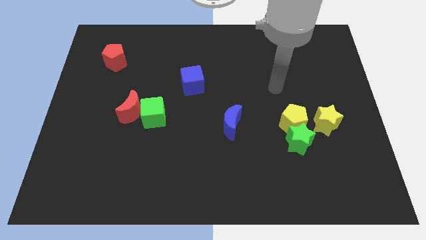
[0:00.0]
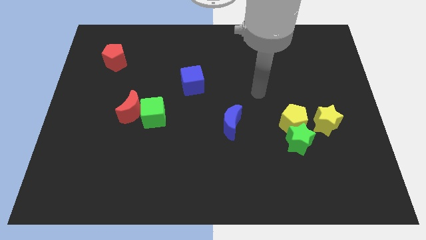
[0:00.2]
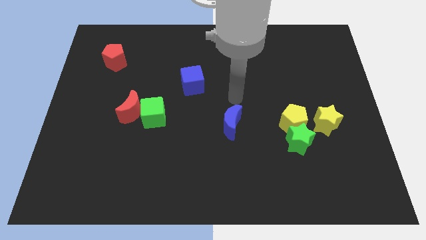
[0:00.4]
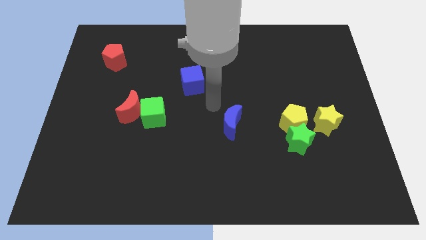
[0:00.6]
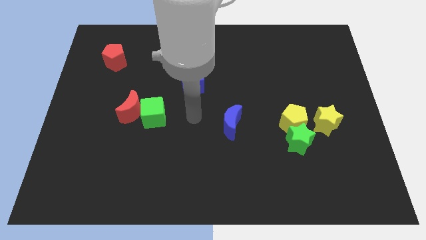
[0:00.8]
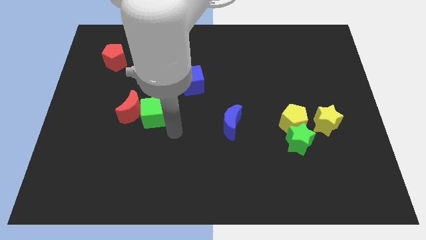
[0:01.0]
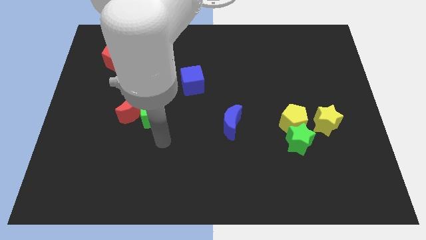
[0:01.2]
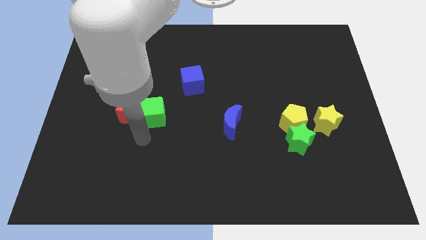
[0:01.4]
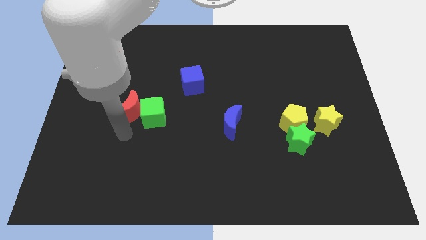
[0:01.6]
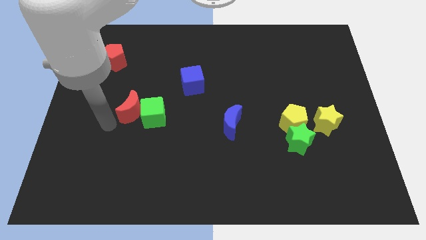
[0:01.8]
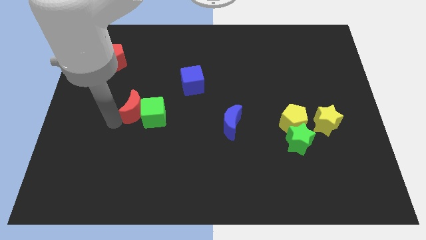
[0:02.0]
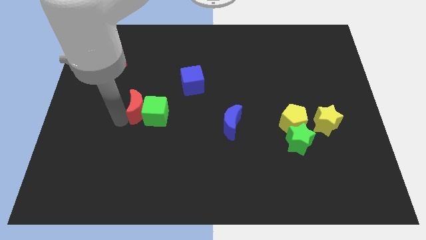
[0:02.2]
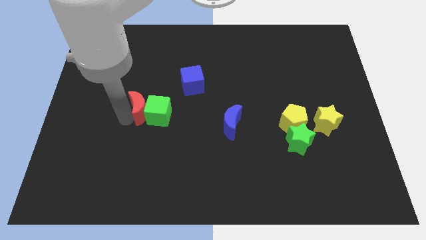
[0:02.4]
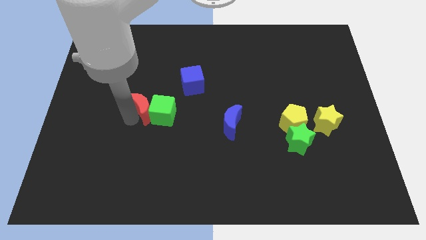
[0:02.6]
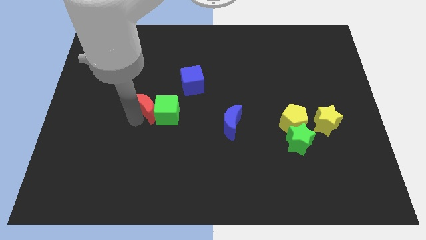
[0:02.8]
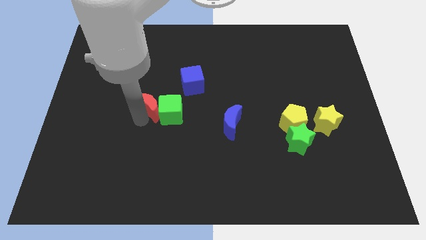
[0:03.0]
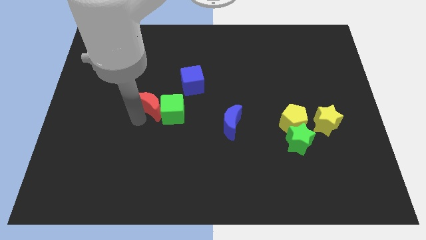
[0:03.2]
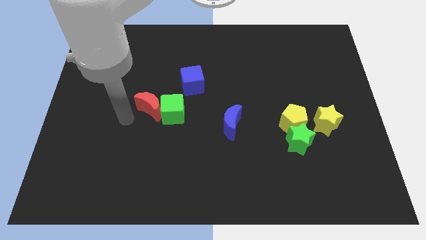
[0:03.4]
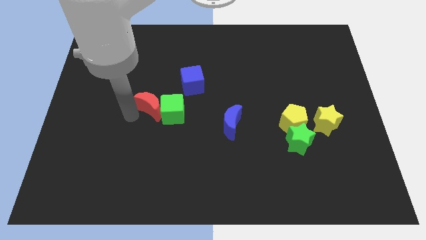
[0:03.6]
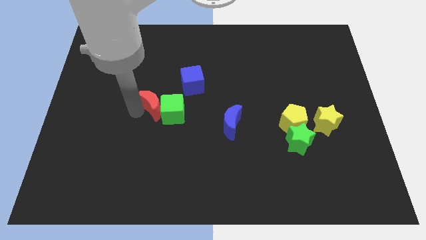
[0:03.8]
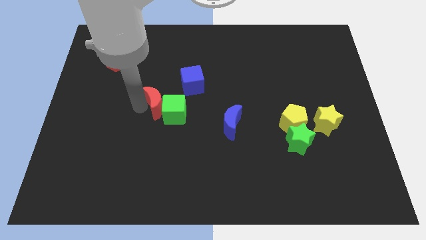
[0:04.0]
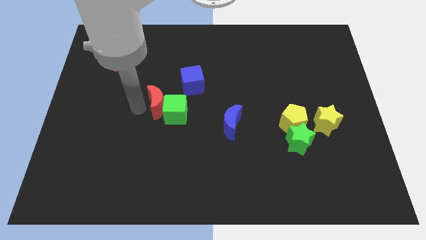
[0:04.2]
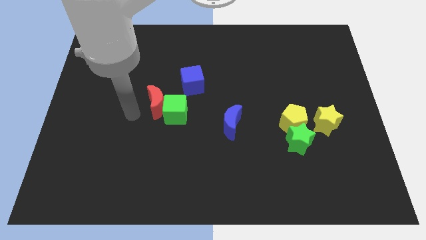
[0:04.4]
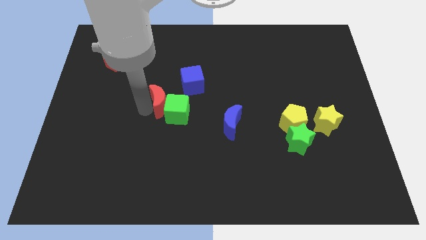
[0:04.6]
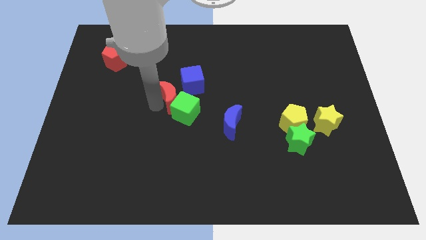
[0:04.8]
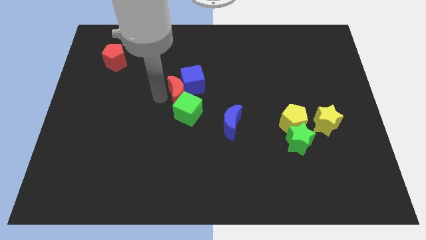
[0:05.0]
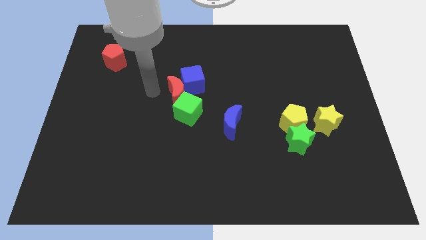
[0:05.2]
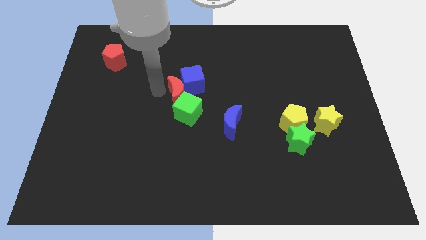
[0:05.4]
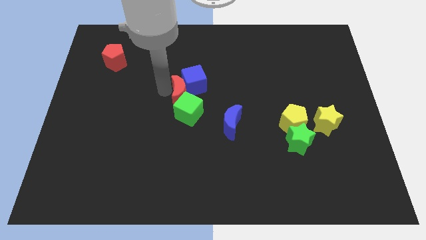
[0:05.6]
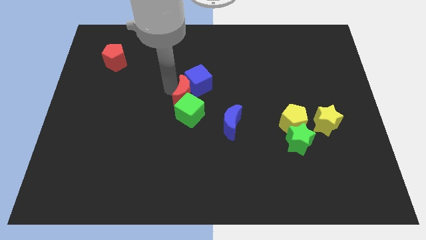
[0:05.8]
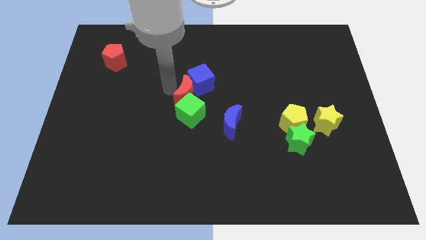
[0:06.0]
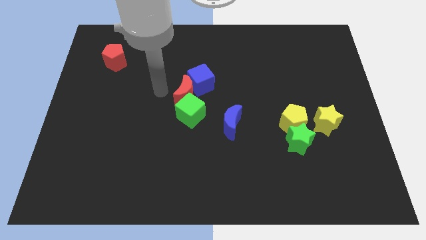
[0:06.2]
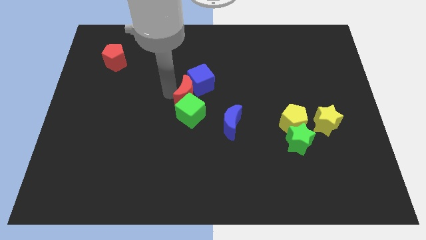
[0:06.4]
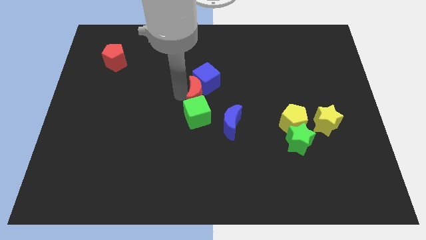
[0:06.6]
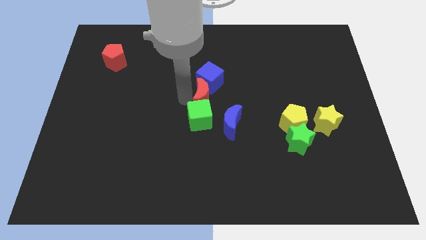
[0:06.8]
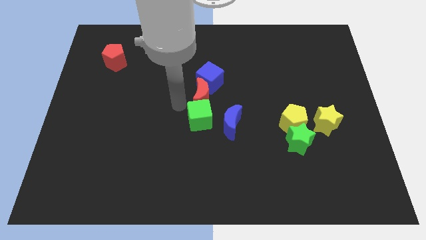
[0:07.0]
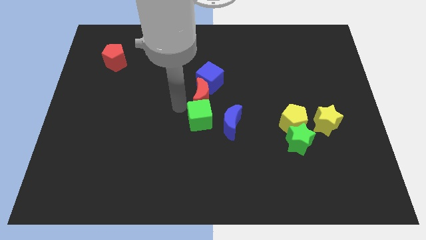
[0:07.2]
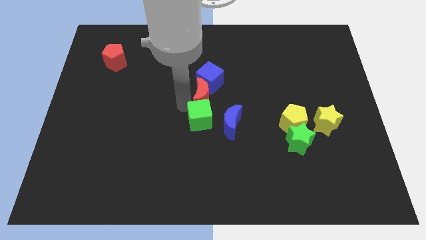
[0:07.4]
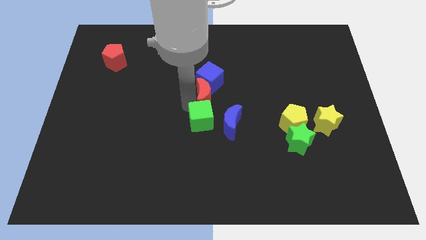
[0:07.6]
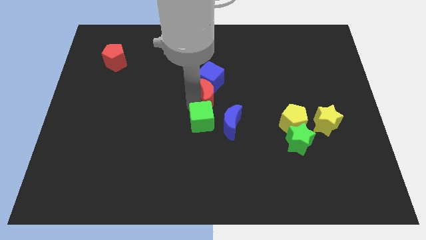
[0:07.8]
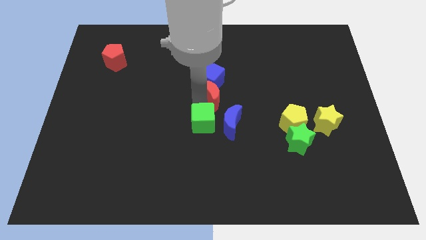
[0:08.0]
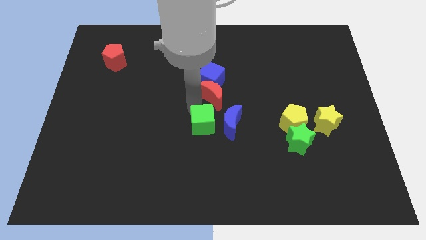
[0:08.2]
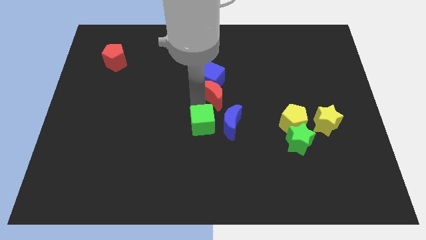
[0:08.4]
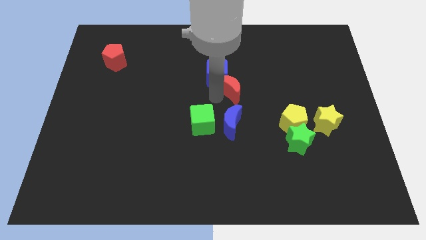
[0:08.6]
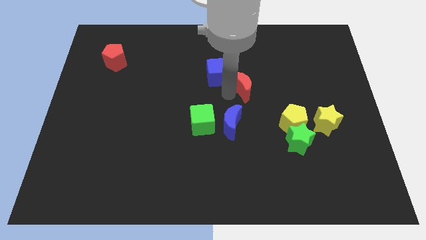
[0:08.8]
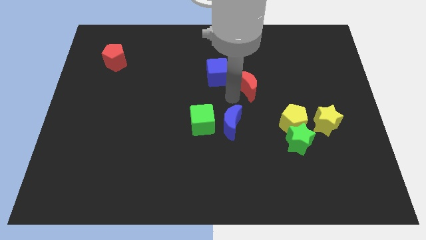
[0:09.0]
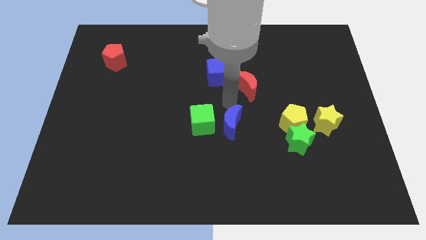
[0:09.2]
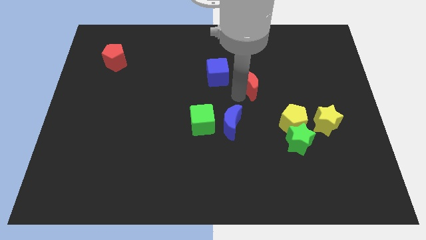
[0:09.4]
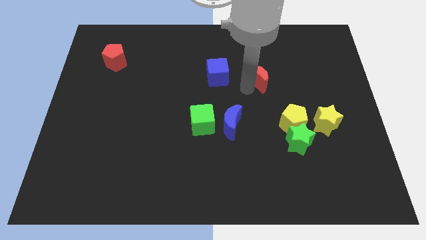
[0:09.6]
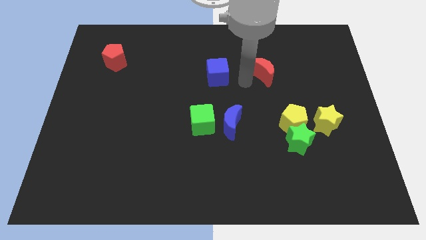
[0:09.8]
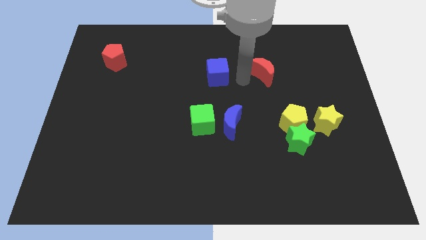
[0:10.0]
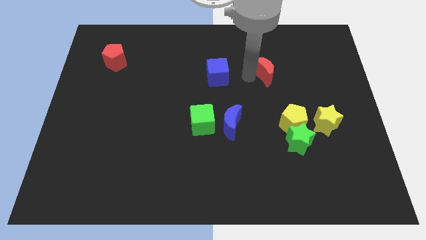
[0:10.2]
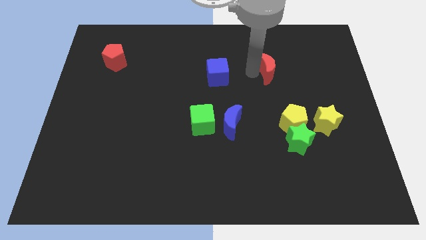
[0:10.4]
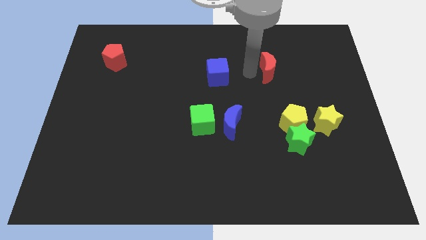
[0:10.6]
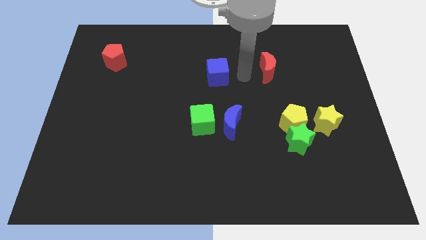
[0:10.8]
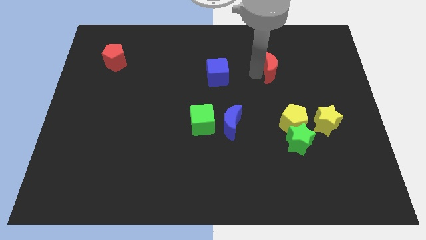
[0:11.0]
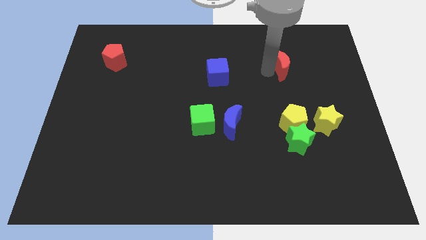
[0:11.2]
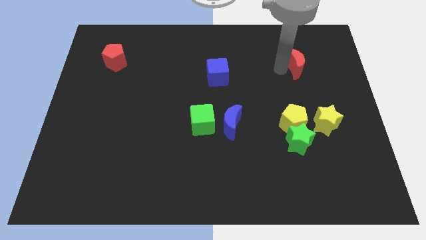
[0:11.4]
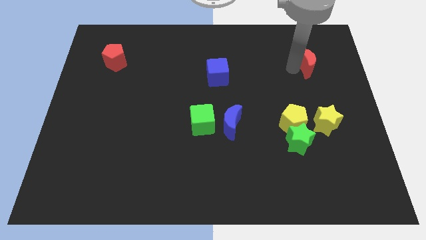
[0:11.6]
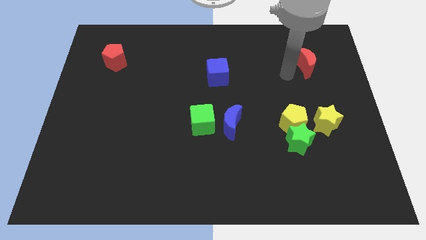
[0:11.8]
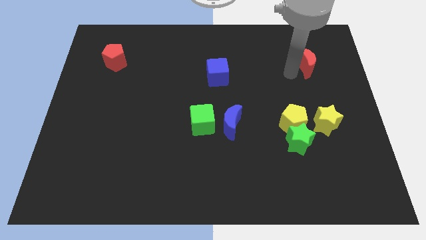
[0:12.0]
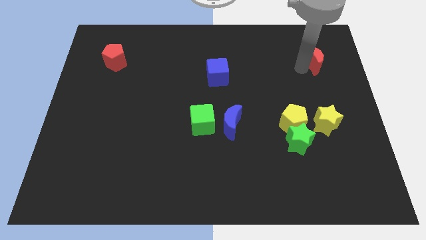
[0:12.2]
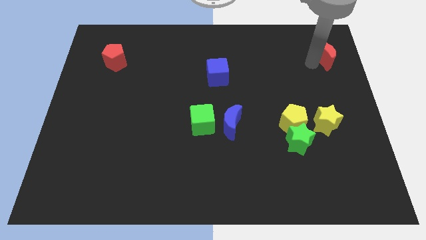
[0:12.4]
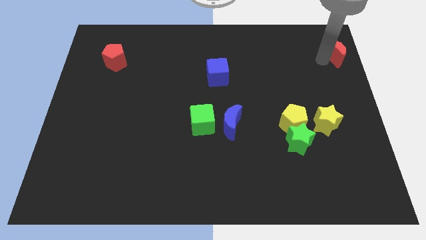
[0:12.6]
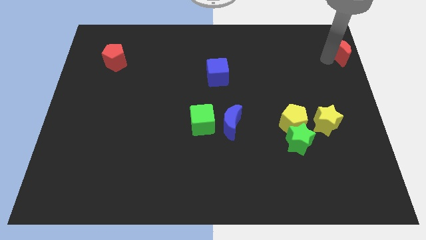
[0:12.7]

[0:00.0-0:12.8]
move the red moon to the top right of the board
